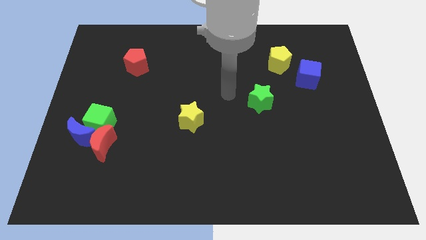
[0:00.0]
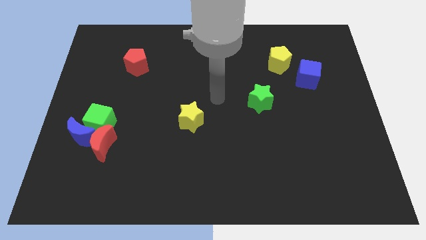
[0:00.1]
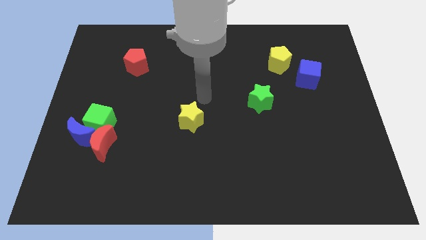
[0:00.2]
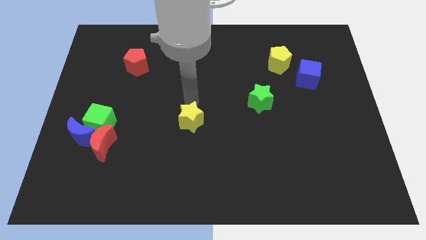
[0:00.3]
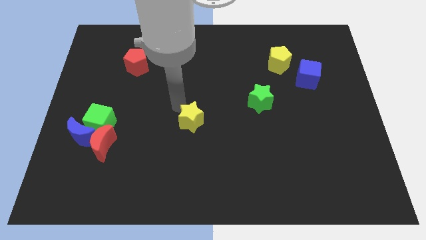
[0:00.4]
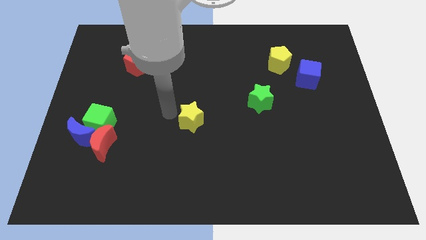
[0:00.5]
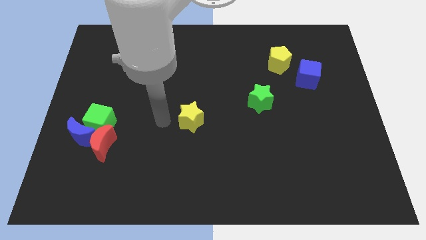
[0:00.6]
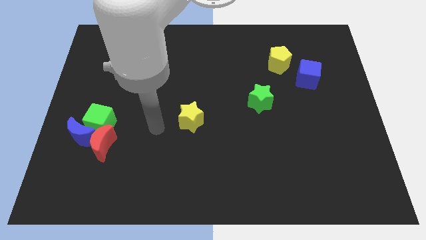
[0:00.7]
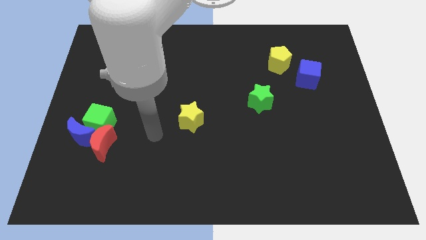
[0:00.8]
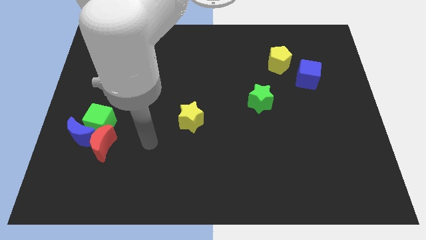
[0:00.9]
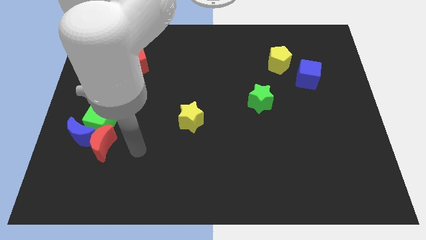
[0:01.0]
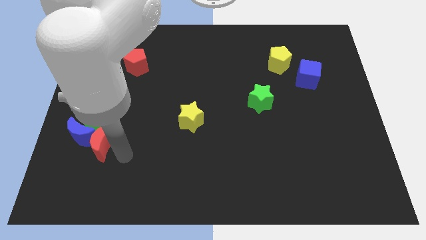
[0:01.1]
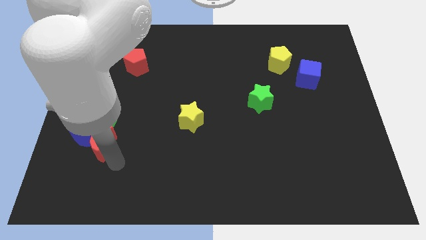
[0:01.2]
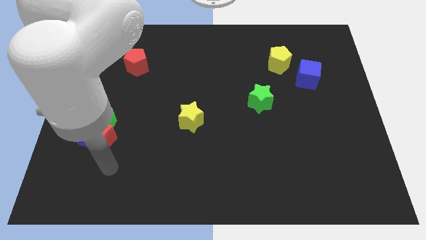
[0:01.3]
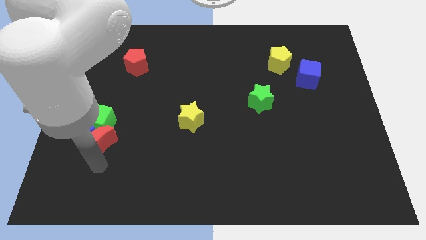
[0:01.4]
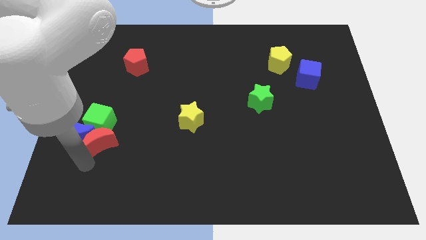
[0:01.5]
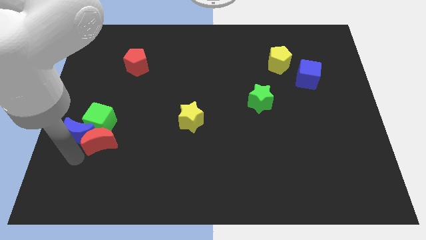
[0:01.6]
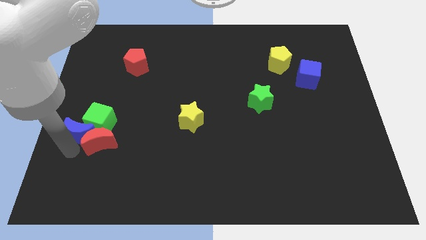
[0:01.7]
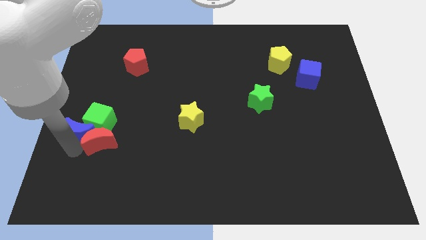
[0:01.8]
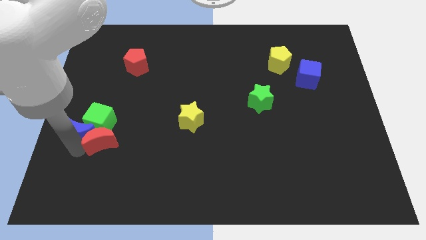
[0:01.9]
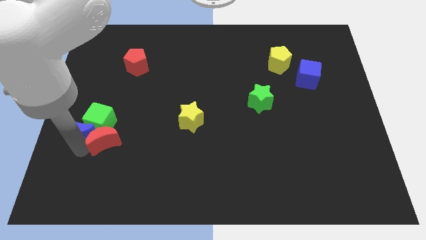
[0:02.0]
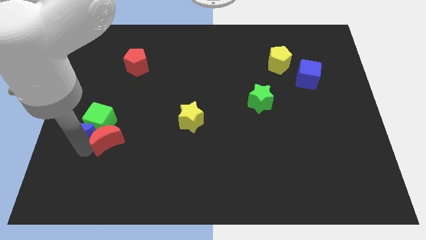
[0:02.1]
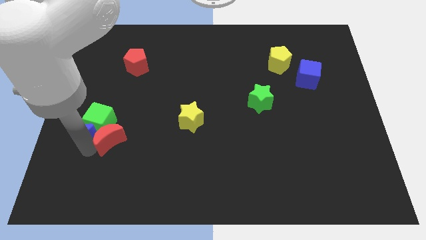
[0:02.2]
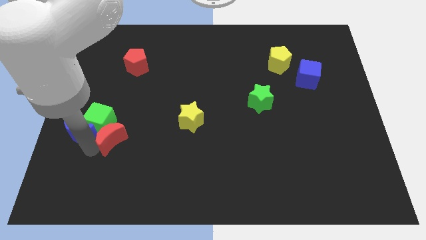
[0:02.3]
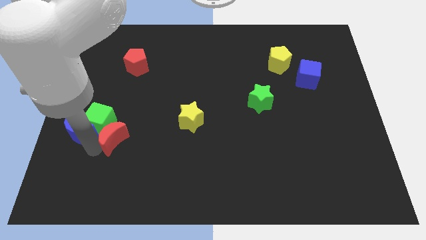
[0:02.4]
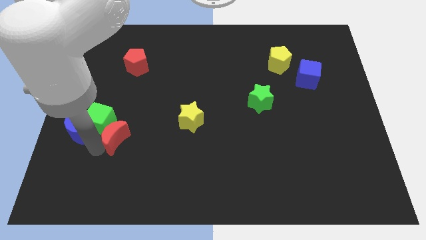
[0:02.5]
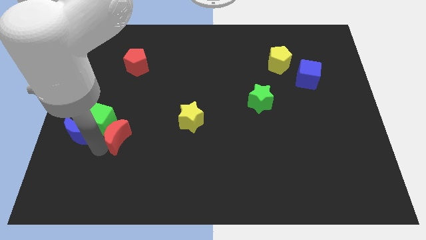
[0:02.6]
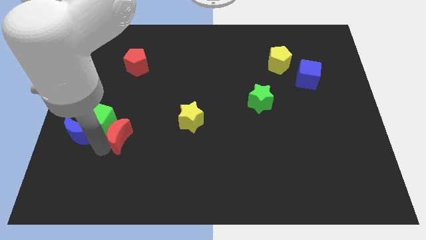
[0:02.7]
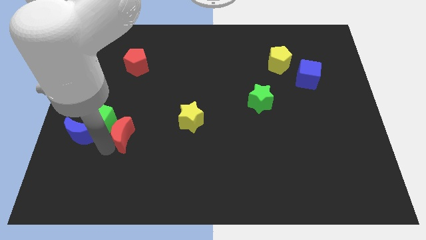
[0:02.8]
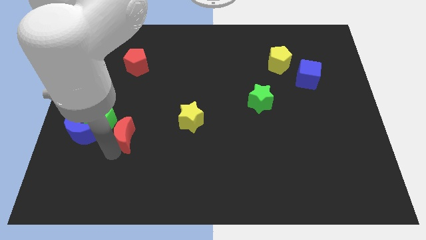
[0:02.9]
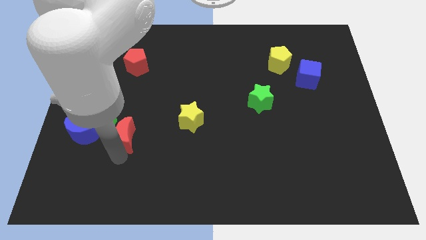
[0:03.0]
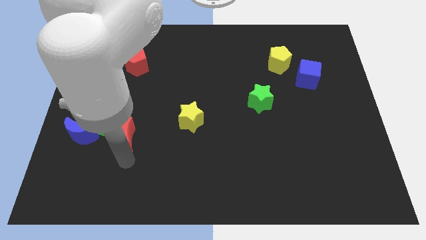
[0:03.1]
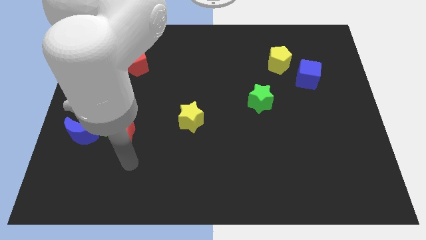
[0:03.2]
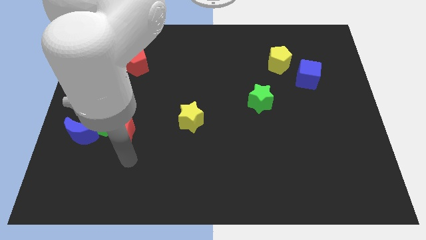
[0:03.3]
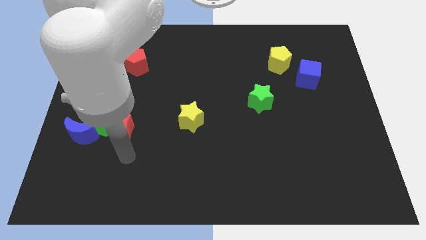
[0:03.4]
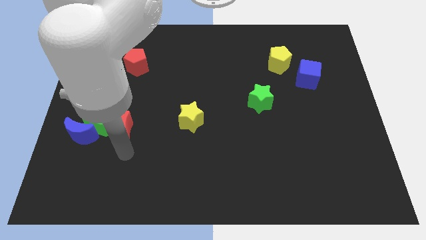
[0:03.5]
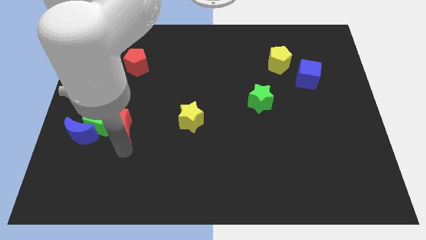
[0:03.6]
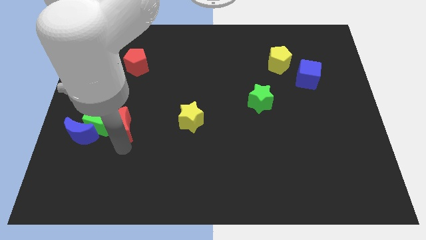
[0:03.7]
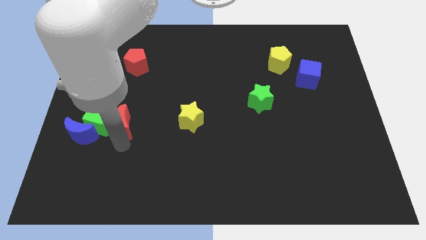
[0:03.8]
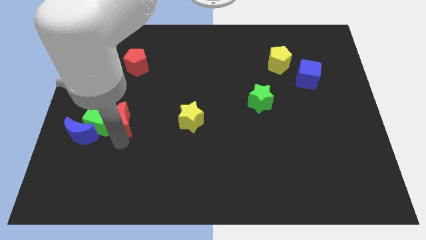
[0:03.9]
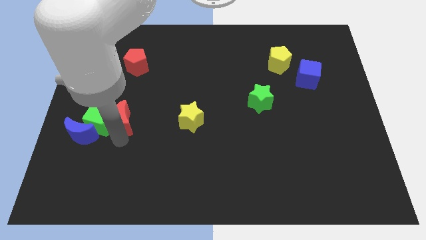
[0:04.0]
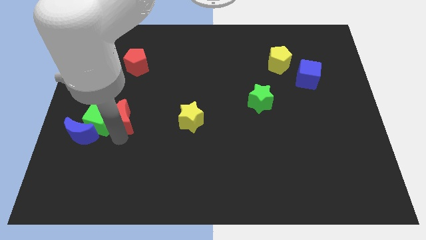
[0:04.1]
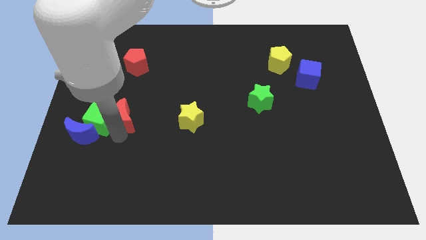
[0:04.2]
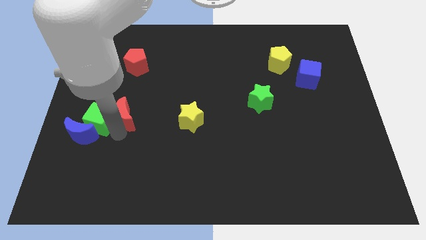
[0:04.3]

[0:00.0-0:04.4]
move the red moon upwards slightly

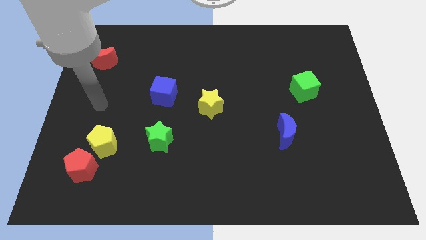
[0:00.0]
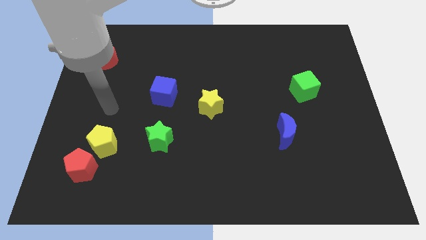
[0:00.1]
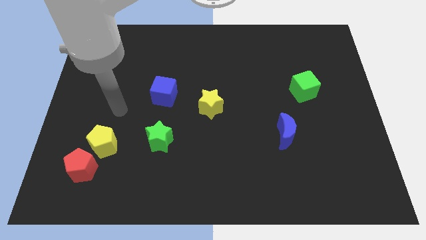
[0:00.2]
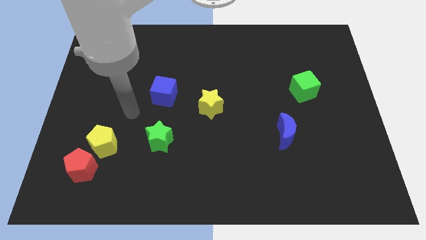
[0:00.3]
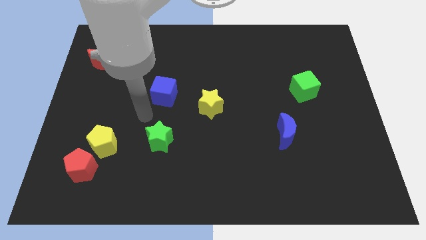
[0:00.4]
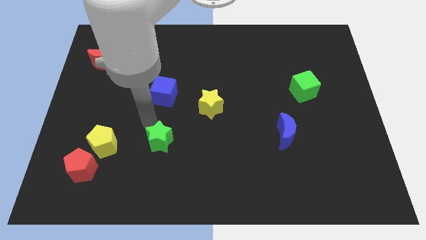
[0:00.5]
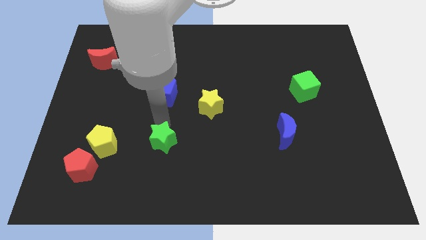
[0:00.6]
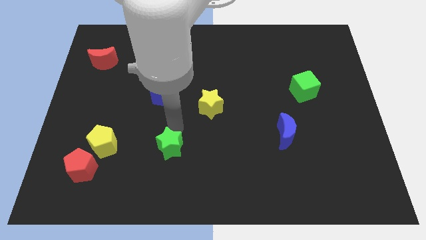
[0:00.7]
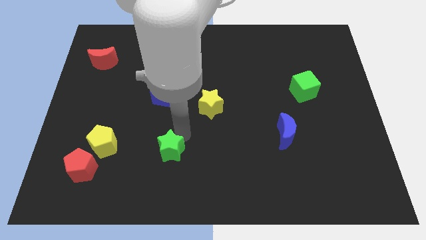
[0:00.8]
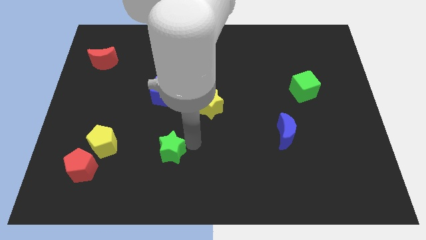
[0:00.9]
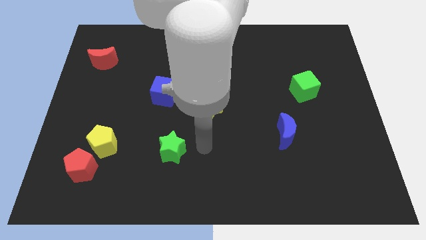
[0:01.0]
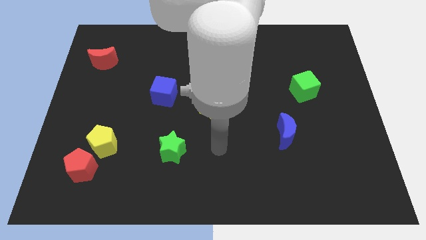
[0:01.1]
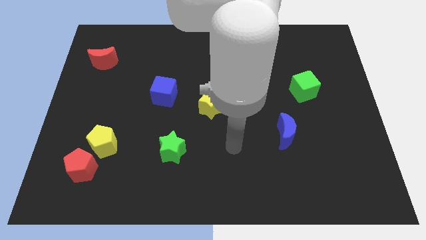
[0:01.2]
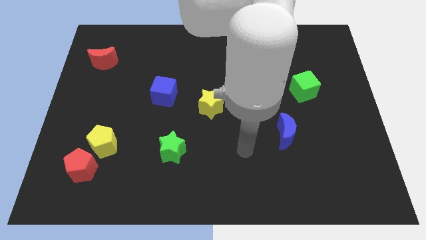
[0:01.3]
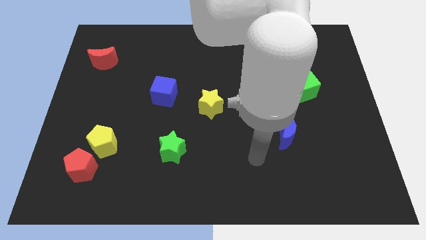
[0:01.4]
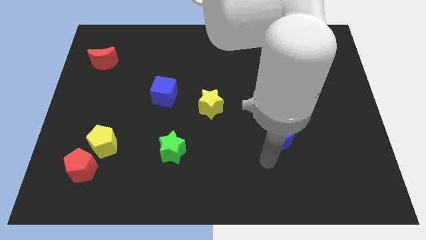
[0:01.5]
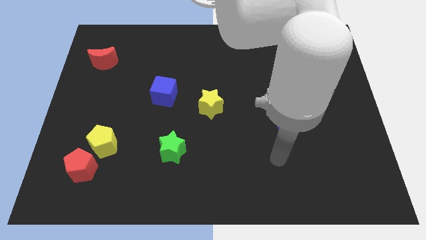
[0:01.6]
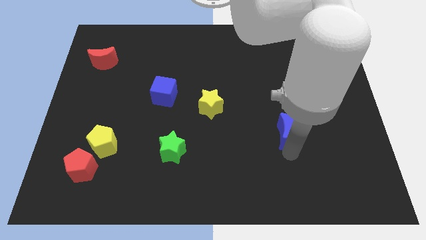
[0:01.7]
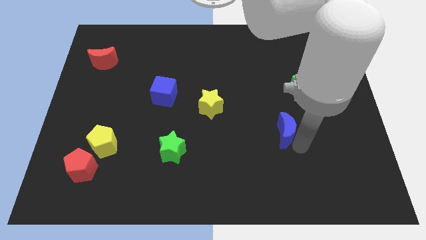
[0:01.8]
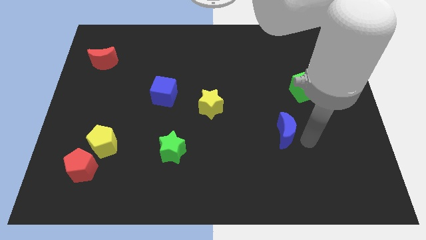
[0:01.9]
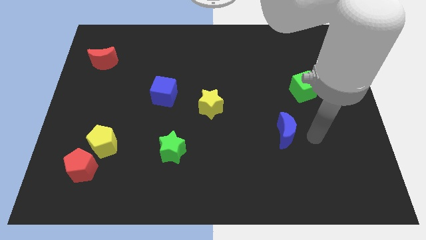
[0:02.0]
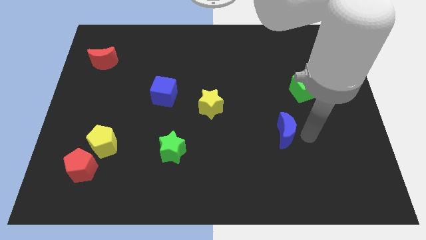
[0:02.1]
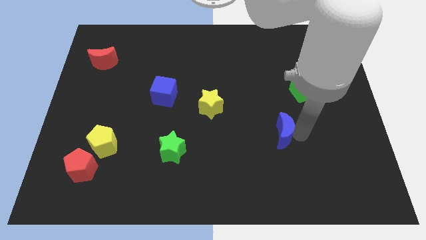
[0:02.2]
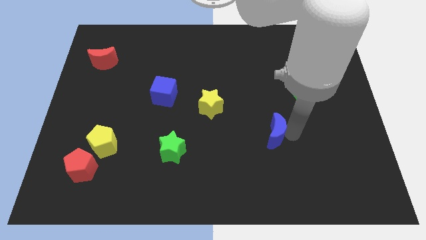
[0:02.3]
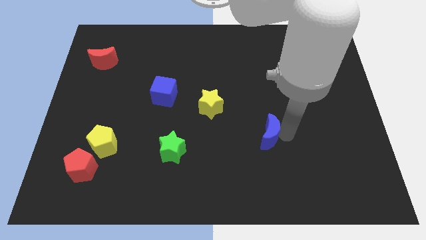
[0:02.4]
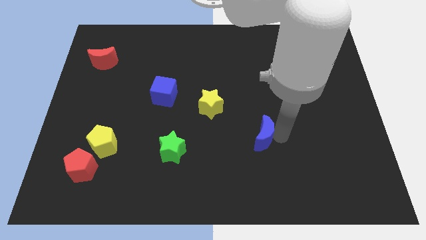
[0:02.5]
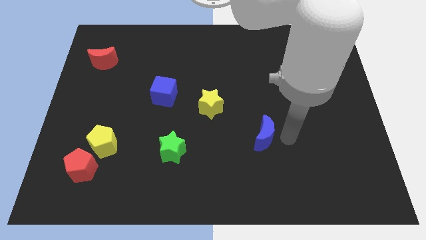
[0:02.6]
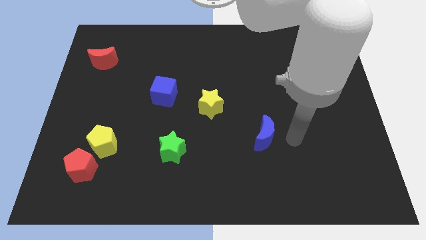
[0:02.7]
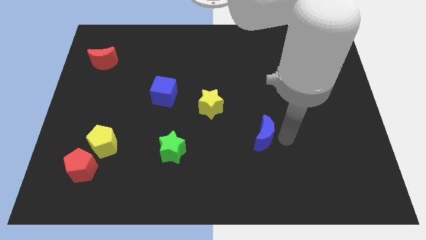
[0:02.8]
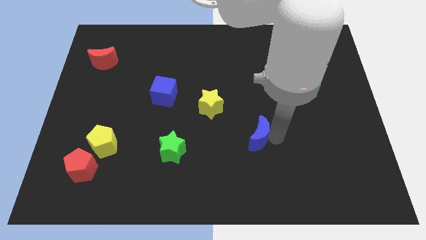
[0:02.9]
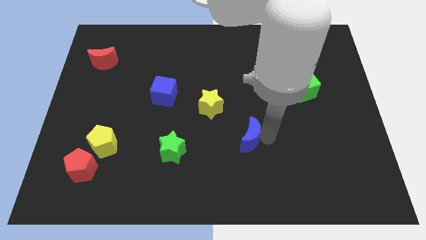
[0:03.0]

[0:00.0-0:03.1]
slide the blue moon a little to the left

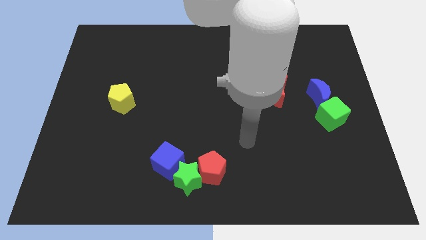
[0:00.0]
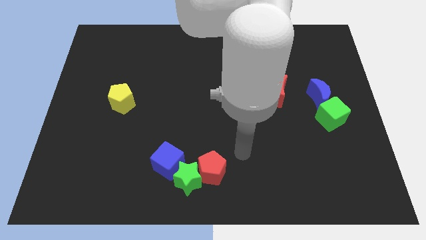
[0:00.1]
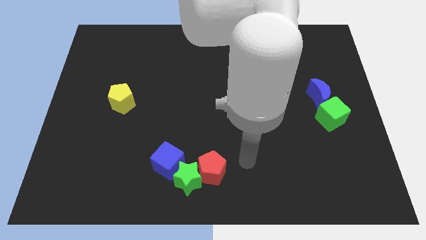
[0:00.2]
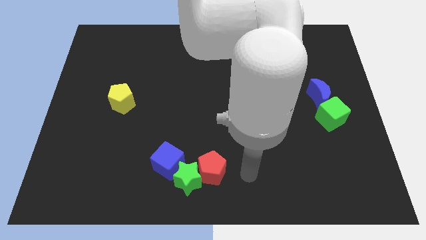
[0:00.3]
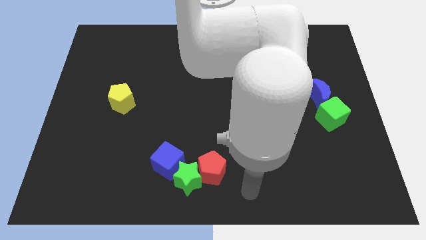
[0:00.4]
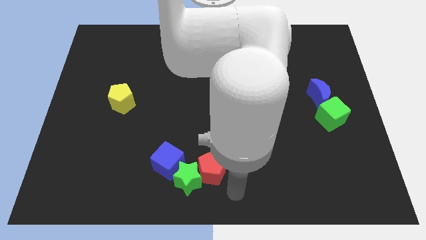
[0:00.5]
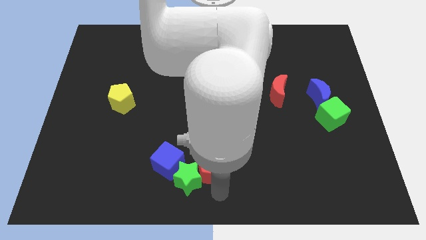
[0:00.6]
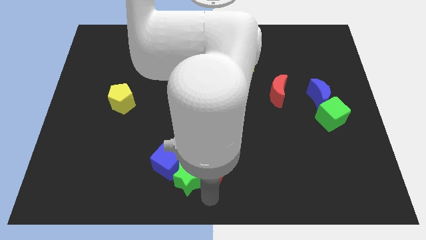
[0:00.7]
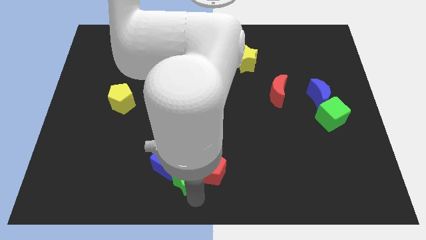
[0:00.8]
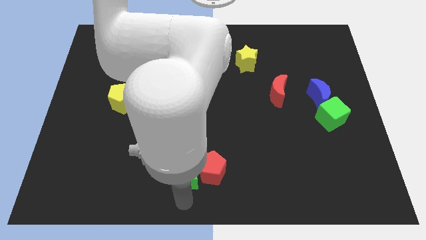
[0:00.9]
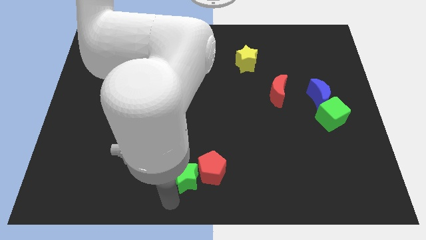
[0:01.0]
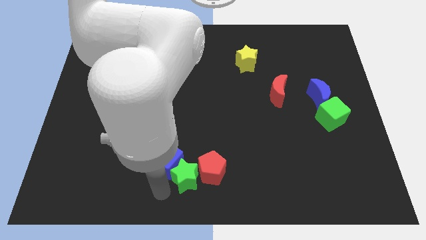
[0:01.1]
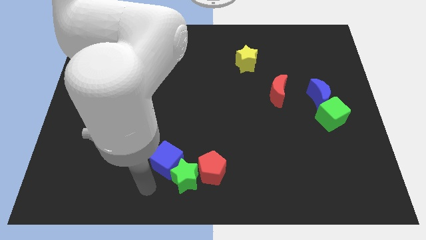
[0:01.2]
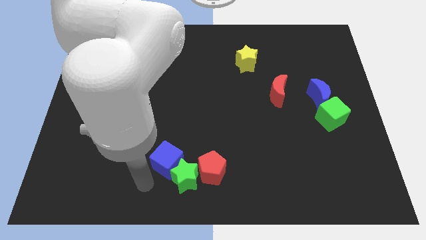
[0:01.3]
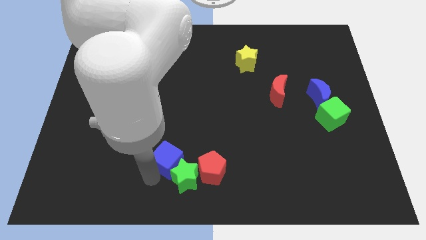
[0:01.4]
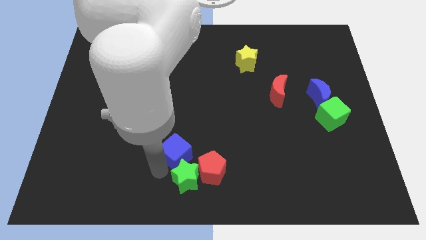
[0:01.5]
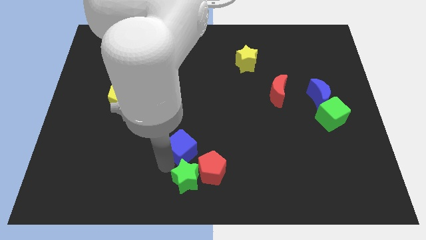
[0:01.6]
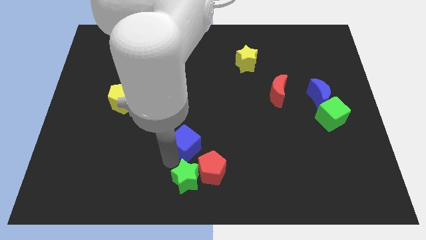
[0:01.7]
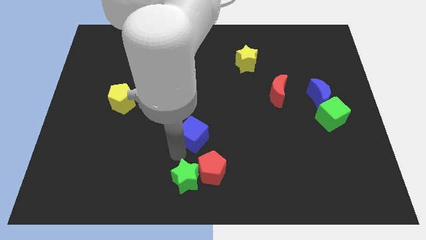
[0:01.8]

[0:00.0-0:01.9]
move the blue cube diagonally up and right slightly
